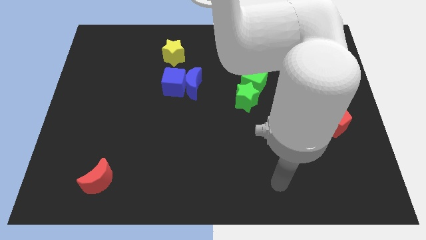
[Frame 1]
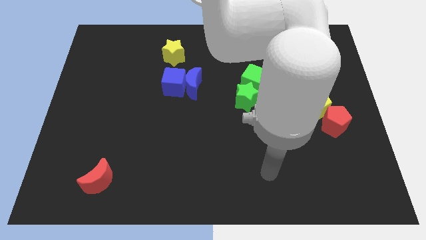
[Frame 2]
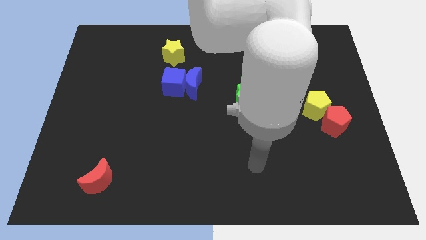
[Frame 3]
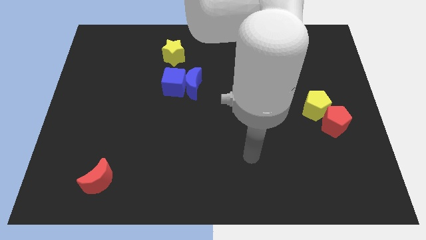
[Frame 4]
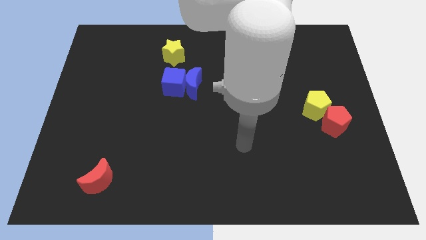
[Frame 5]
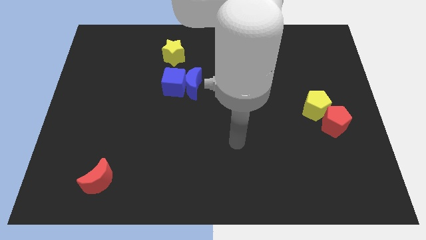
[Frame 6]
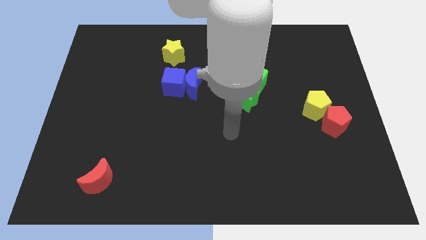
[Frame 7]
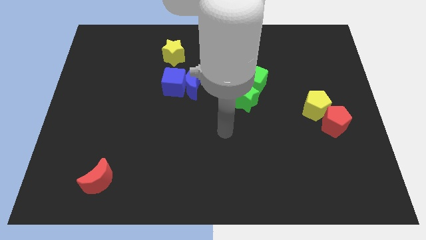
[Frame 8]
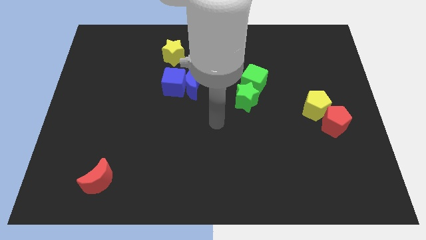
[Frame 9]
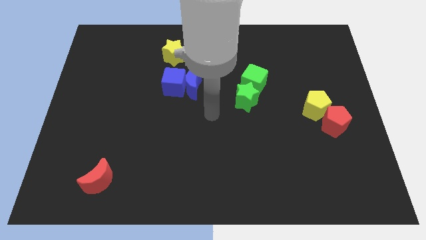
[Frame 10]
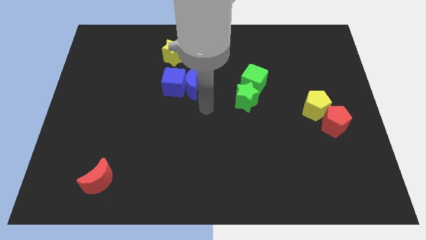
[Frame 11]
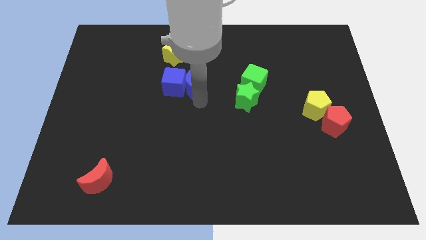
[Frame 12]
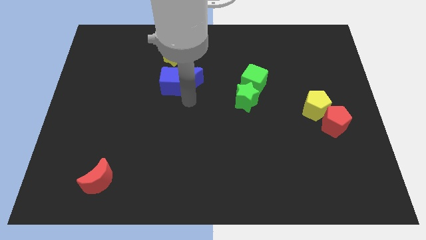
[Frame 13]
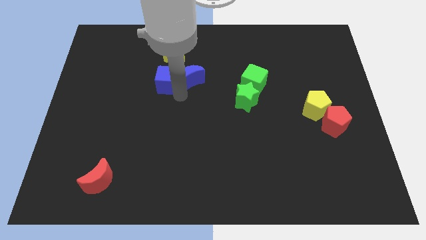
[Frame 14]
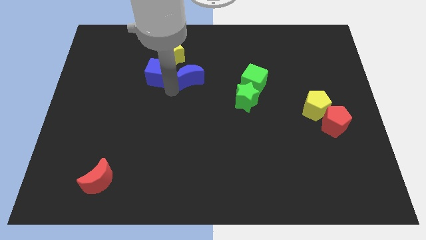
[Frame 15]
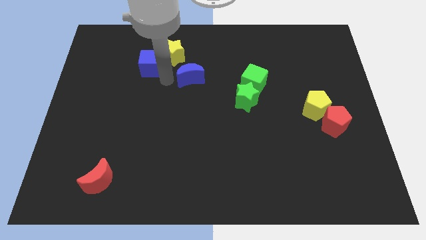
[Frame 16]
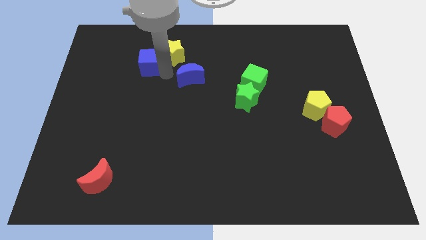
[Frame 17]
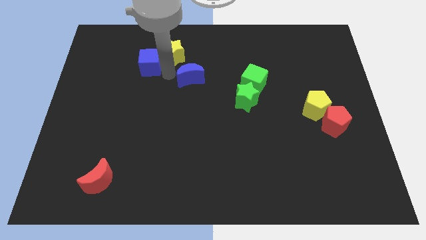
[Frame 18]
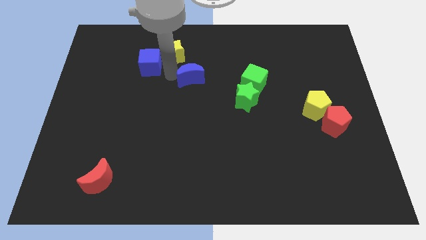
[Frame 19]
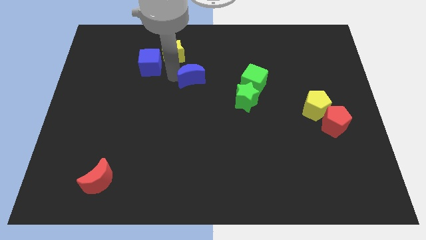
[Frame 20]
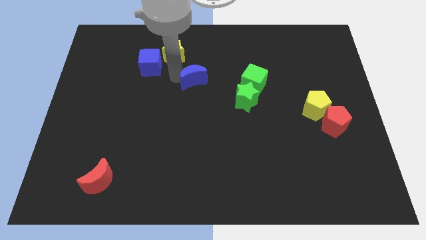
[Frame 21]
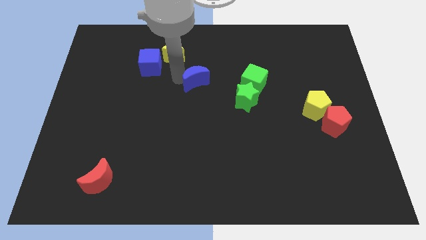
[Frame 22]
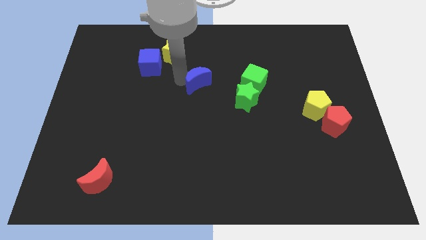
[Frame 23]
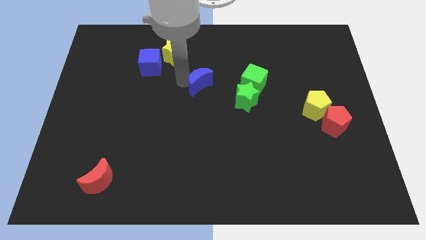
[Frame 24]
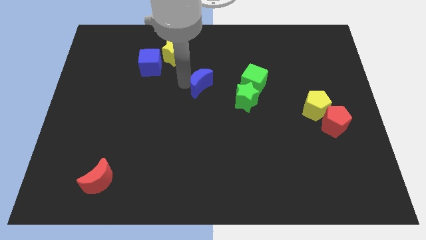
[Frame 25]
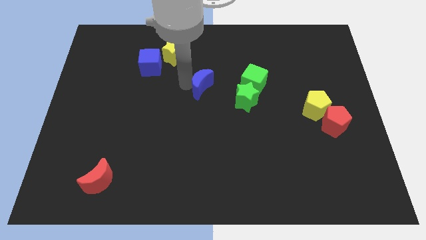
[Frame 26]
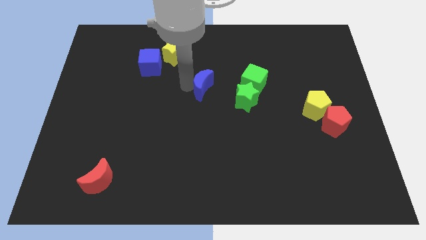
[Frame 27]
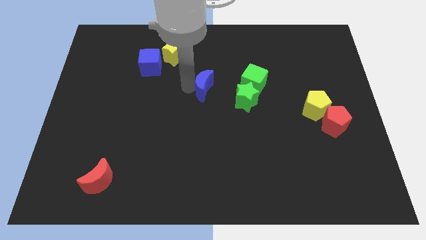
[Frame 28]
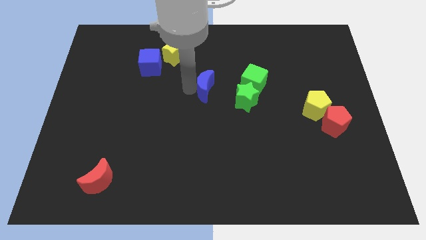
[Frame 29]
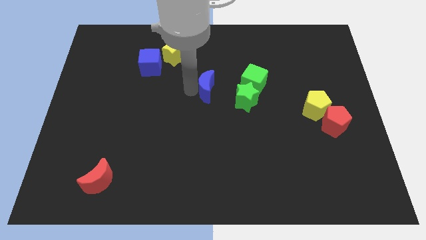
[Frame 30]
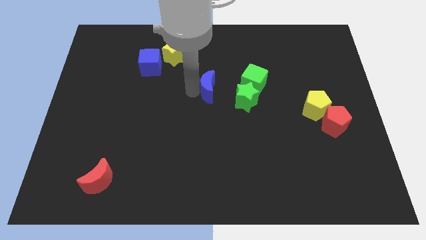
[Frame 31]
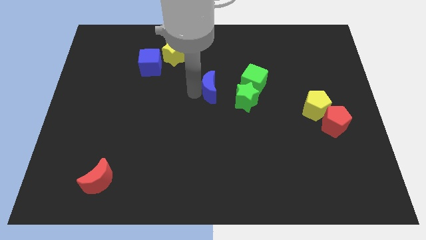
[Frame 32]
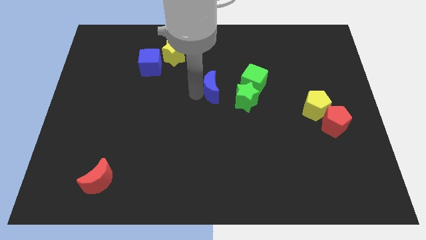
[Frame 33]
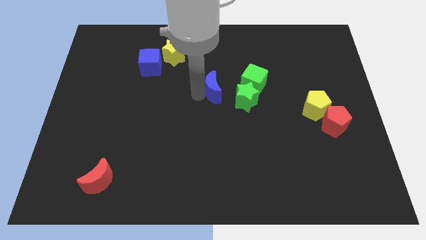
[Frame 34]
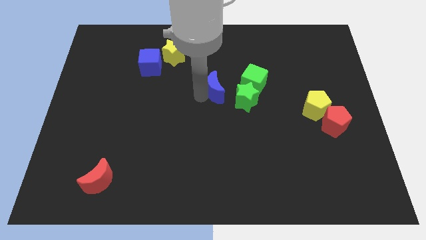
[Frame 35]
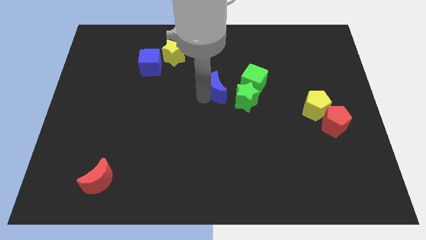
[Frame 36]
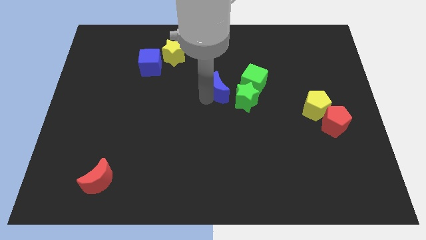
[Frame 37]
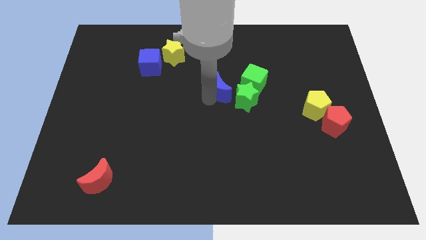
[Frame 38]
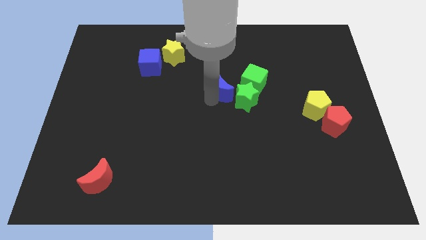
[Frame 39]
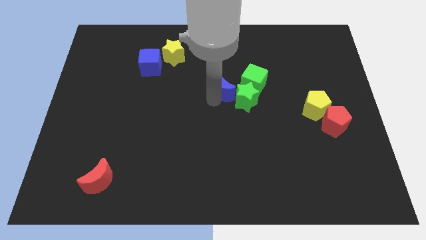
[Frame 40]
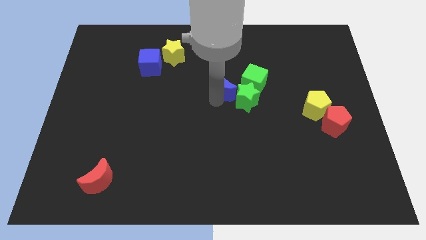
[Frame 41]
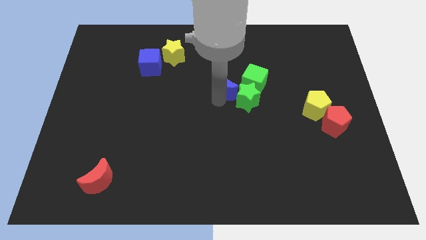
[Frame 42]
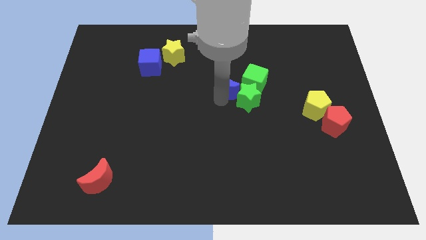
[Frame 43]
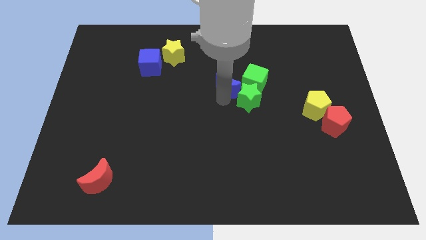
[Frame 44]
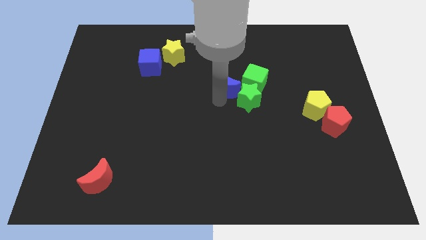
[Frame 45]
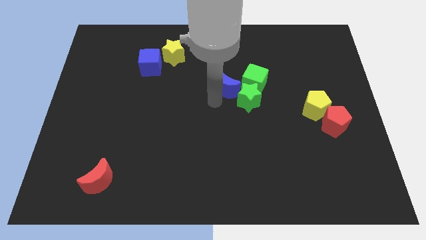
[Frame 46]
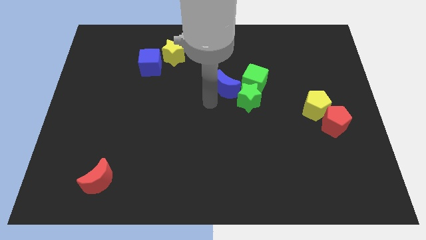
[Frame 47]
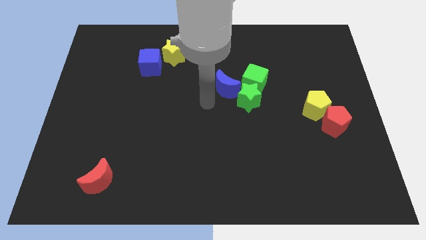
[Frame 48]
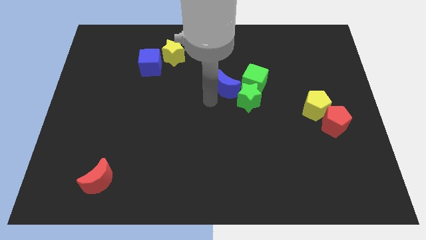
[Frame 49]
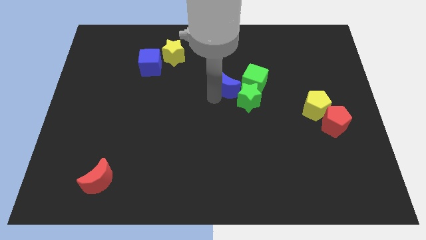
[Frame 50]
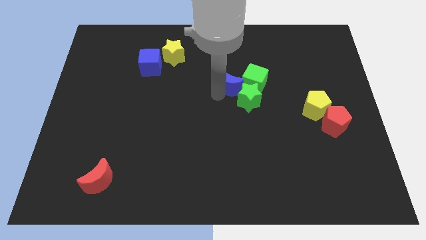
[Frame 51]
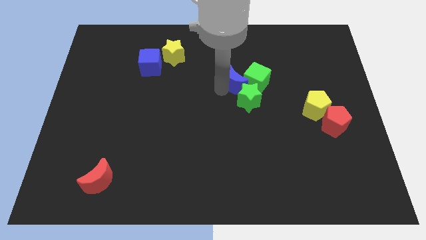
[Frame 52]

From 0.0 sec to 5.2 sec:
push the blue moon towards the green cube

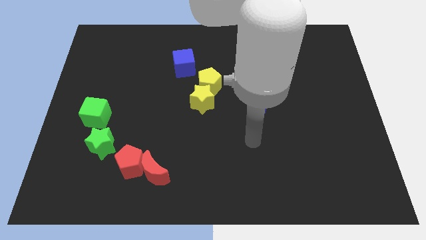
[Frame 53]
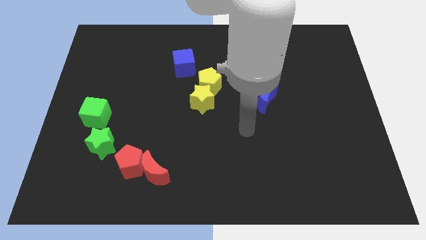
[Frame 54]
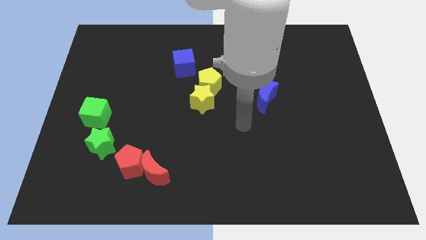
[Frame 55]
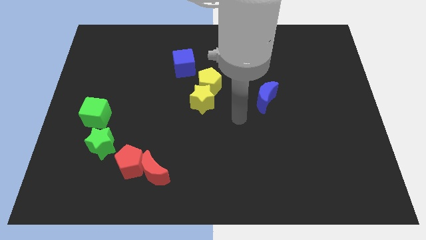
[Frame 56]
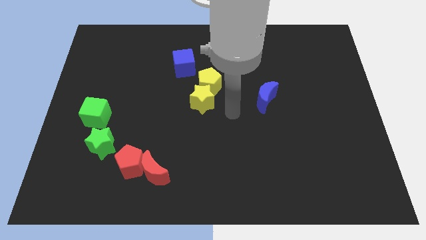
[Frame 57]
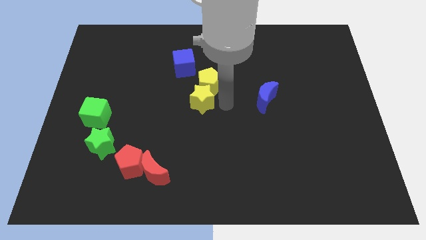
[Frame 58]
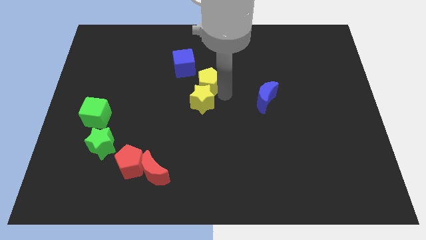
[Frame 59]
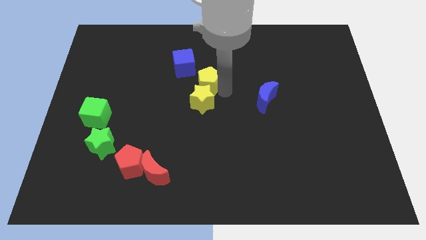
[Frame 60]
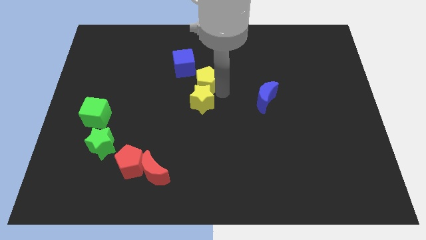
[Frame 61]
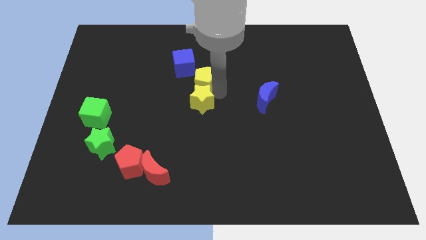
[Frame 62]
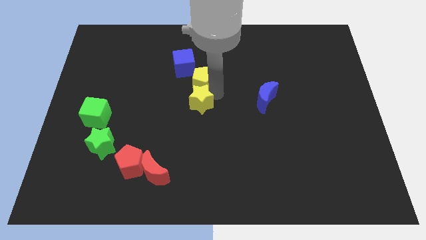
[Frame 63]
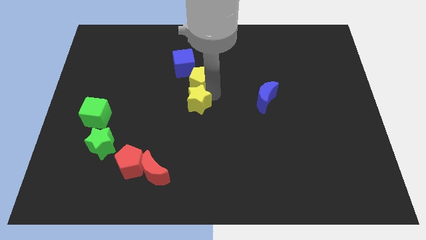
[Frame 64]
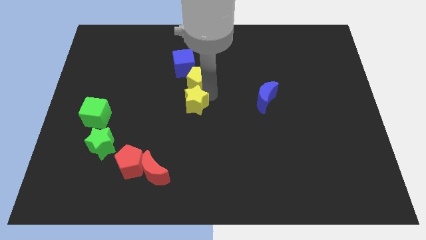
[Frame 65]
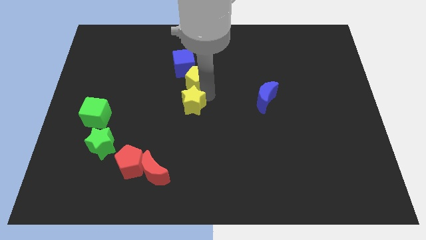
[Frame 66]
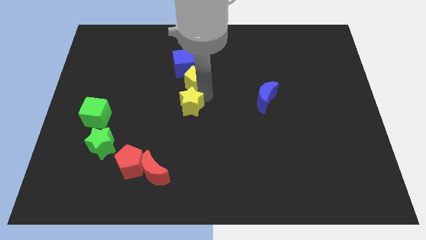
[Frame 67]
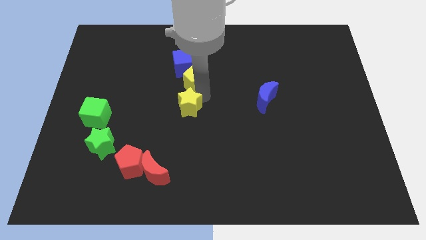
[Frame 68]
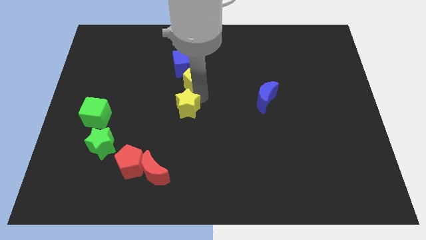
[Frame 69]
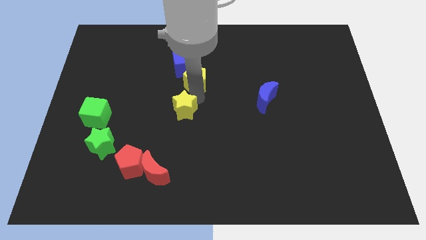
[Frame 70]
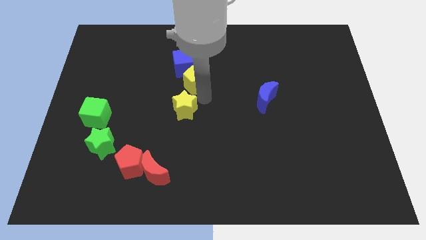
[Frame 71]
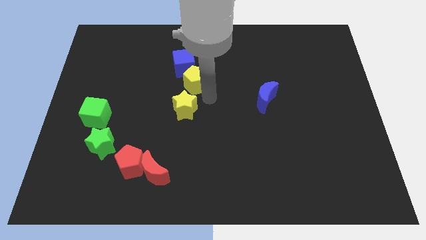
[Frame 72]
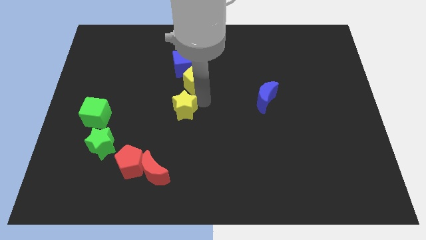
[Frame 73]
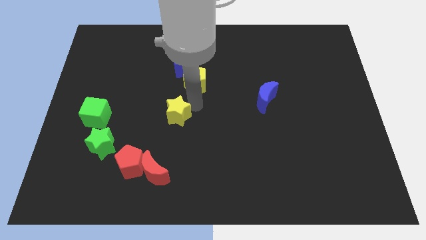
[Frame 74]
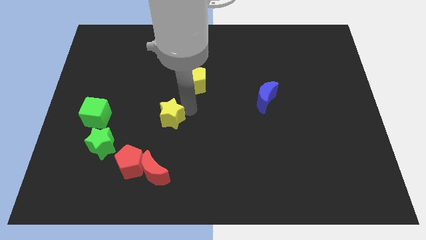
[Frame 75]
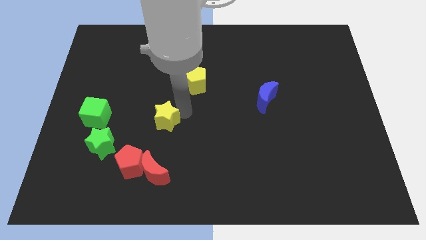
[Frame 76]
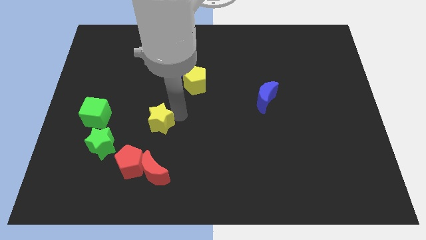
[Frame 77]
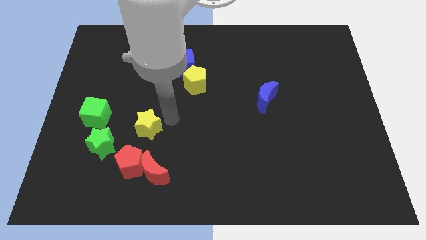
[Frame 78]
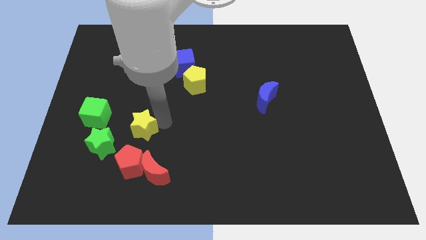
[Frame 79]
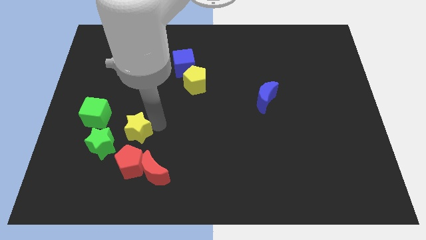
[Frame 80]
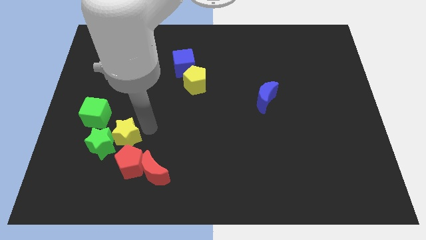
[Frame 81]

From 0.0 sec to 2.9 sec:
put the yellow star towards the green star
